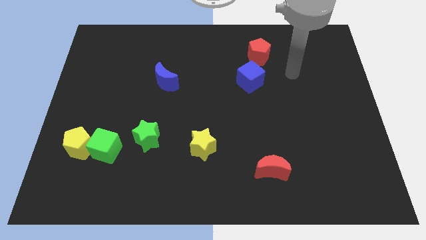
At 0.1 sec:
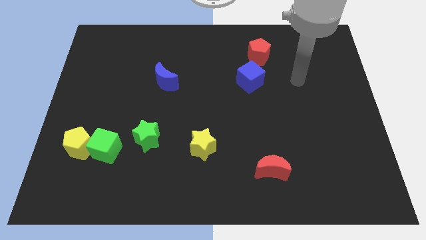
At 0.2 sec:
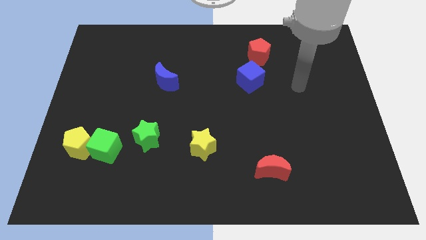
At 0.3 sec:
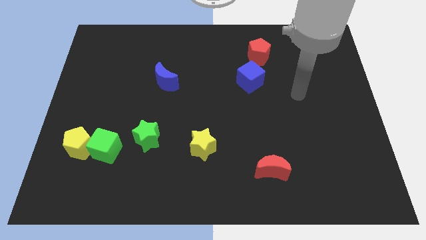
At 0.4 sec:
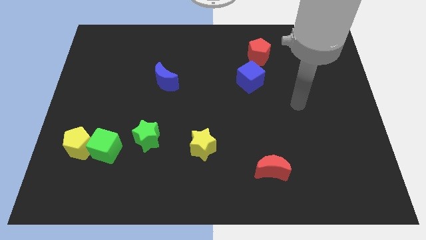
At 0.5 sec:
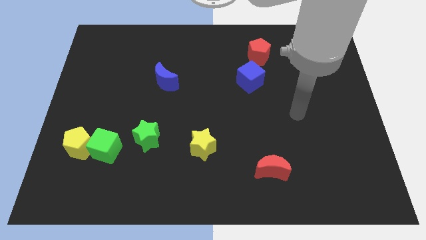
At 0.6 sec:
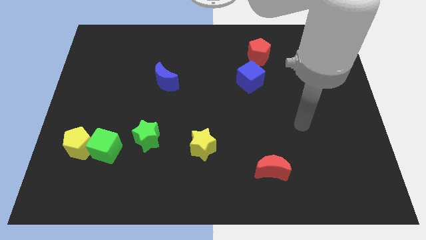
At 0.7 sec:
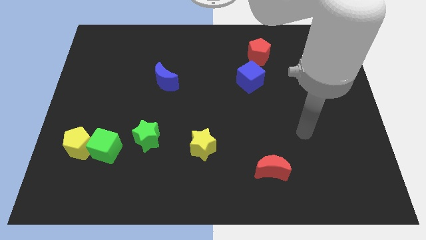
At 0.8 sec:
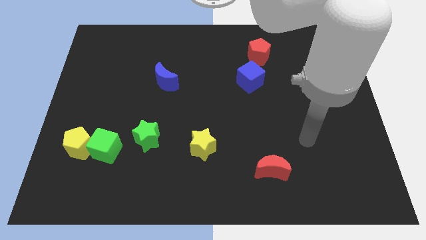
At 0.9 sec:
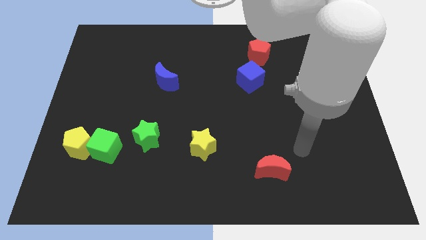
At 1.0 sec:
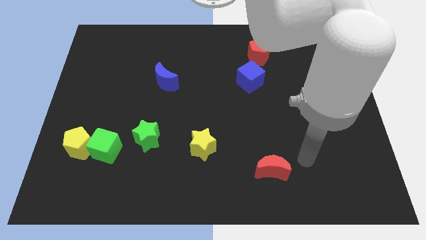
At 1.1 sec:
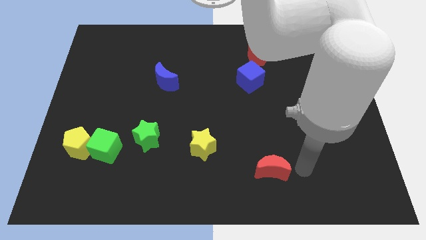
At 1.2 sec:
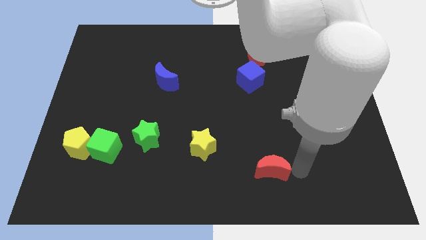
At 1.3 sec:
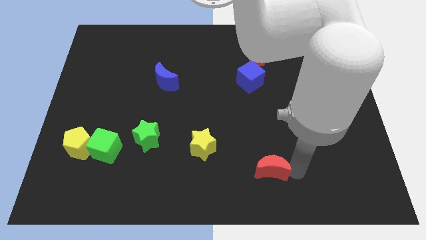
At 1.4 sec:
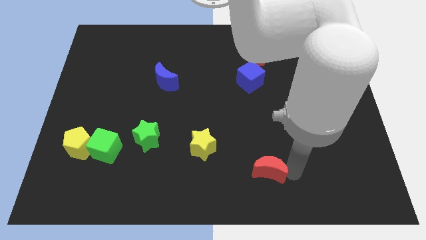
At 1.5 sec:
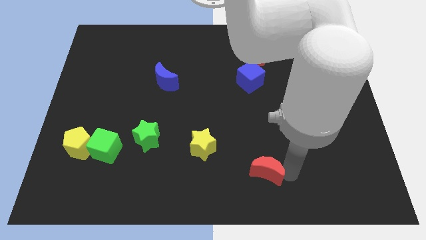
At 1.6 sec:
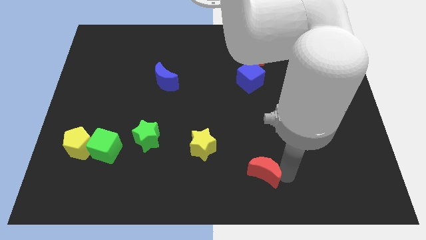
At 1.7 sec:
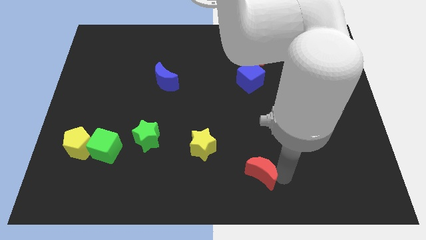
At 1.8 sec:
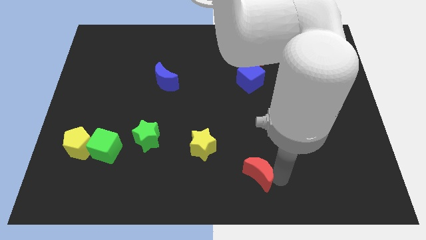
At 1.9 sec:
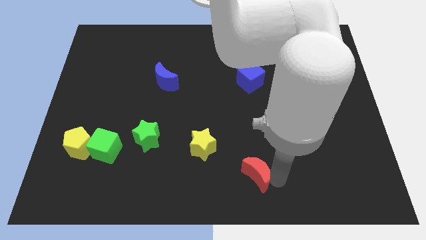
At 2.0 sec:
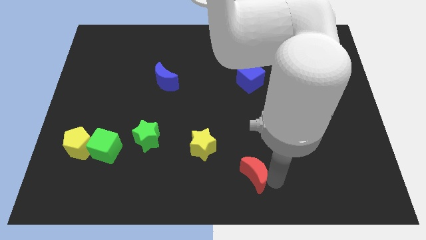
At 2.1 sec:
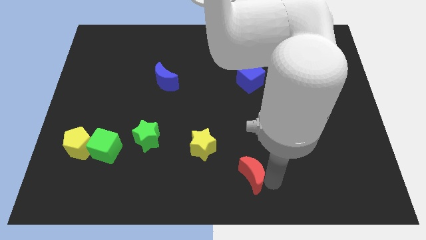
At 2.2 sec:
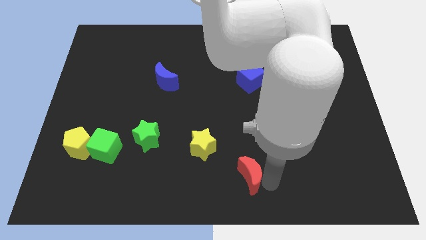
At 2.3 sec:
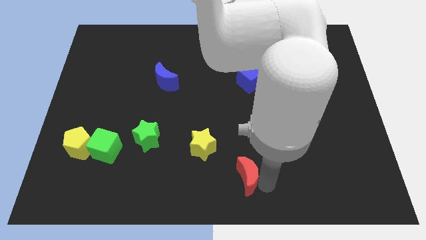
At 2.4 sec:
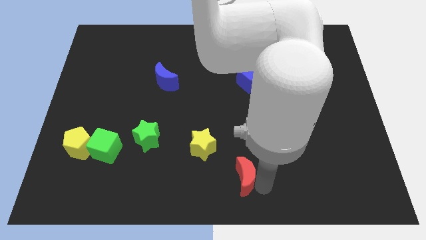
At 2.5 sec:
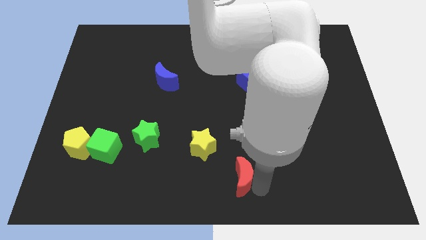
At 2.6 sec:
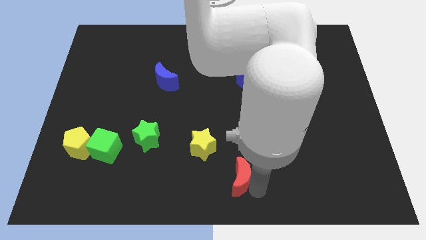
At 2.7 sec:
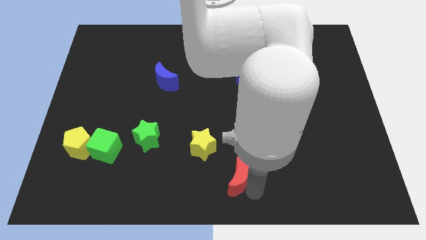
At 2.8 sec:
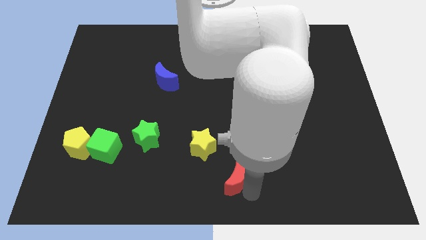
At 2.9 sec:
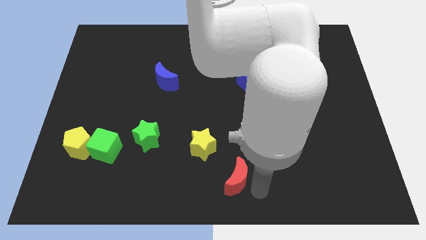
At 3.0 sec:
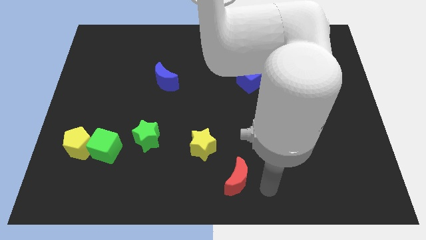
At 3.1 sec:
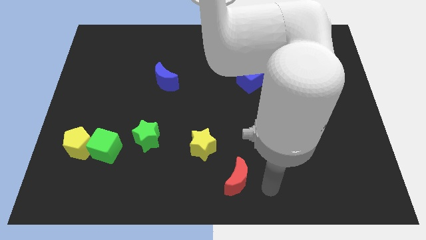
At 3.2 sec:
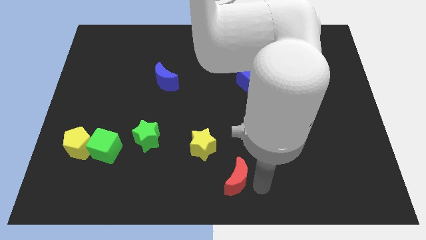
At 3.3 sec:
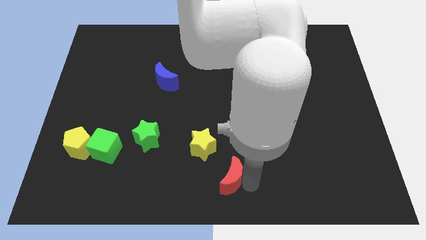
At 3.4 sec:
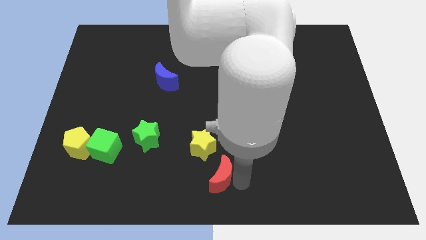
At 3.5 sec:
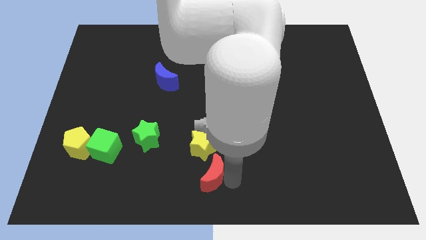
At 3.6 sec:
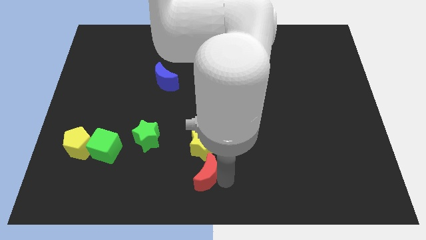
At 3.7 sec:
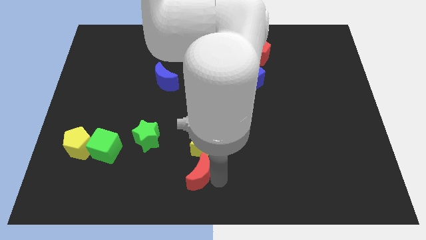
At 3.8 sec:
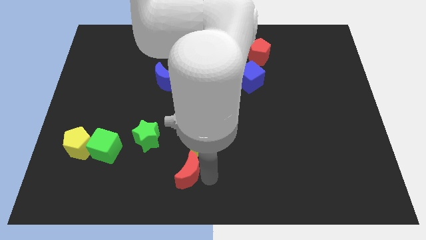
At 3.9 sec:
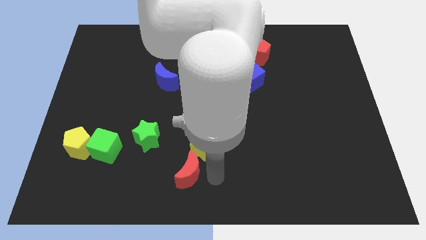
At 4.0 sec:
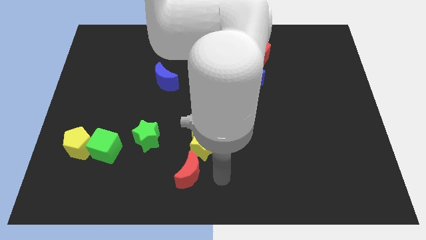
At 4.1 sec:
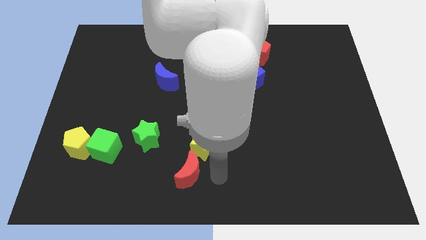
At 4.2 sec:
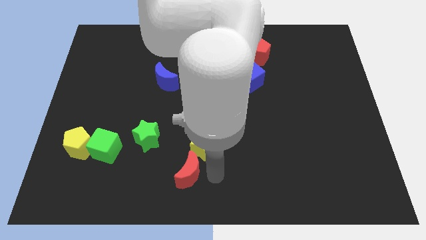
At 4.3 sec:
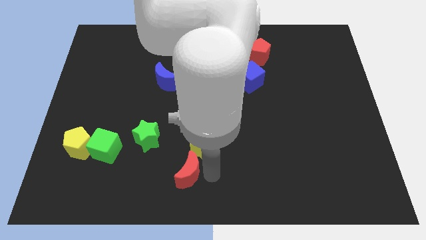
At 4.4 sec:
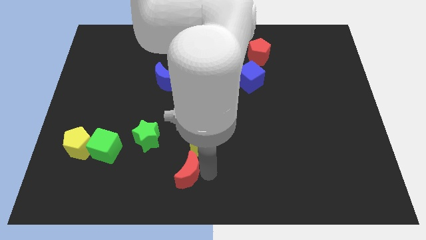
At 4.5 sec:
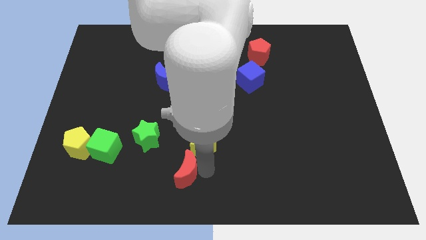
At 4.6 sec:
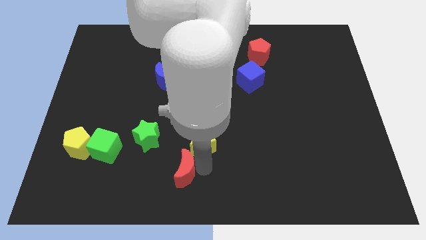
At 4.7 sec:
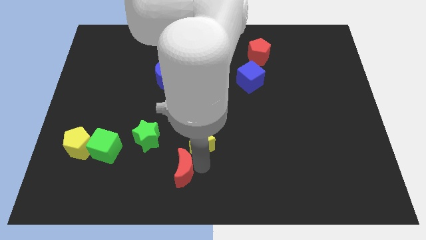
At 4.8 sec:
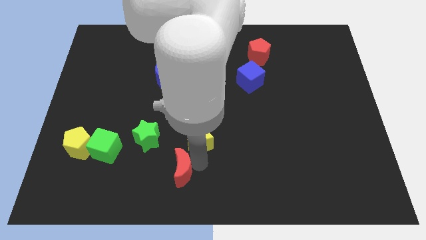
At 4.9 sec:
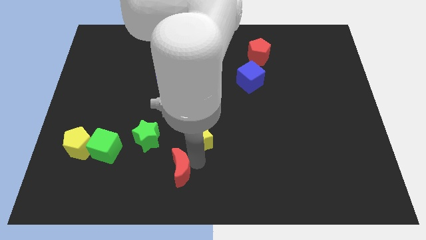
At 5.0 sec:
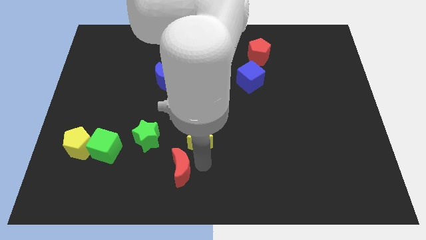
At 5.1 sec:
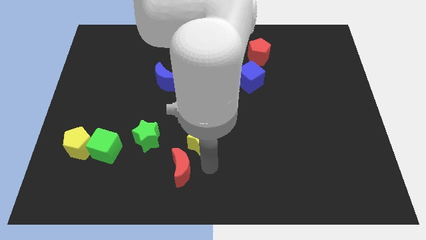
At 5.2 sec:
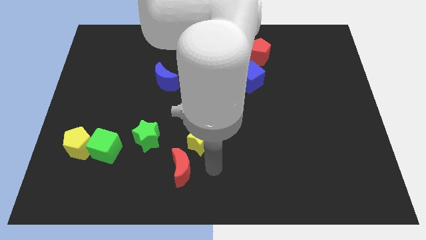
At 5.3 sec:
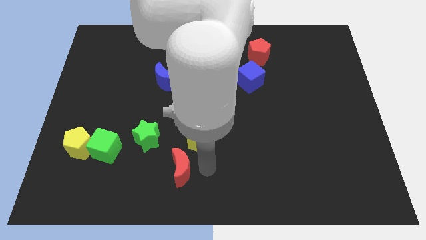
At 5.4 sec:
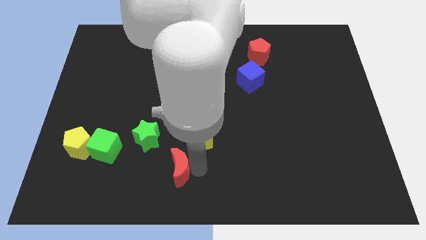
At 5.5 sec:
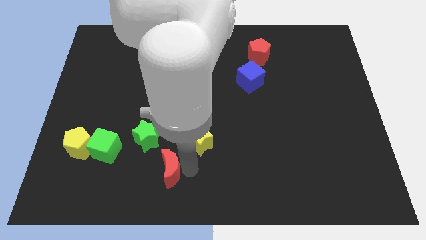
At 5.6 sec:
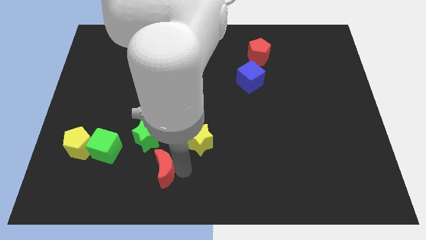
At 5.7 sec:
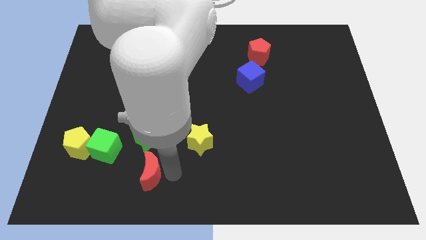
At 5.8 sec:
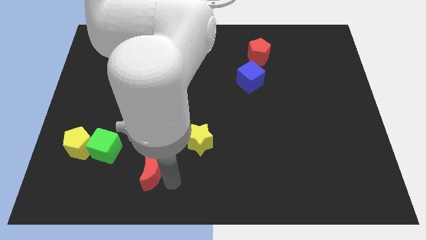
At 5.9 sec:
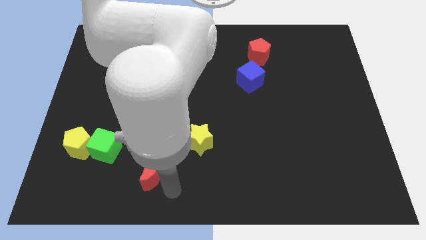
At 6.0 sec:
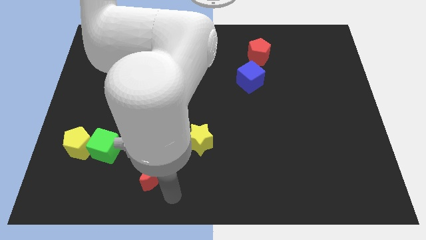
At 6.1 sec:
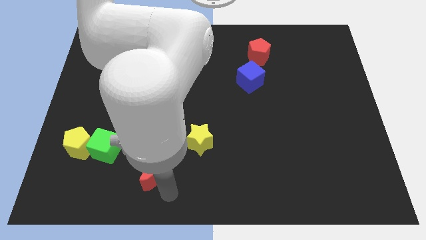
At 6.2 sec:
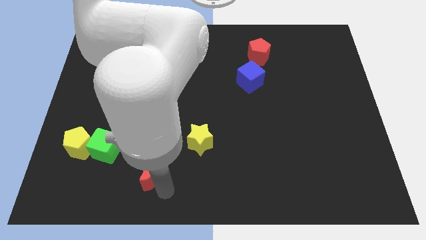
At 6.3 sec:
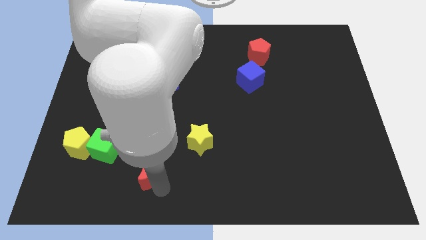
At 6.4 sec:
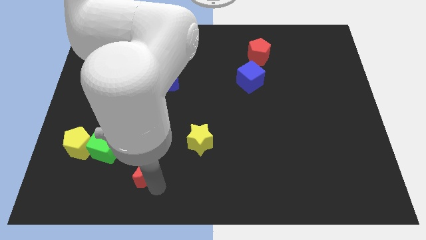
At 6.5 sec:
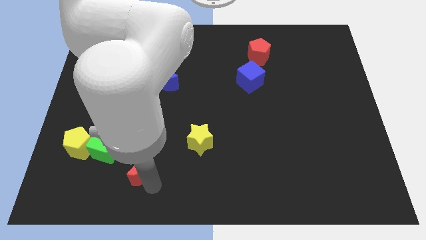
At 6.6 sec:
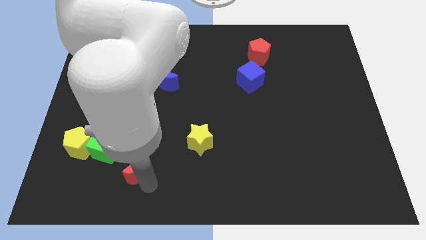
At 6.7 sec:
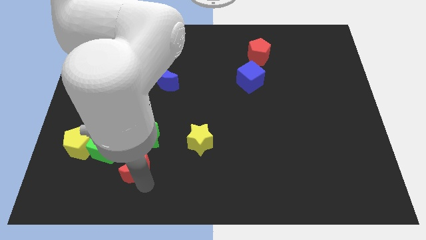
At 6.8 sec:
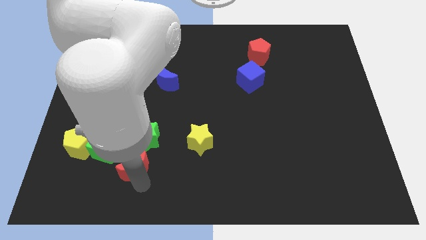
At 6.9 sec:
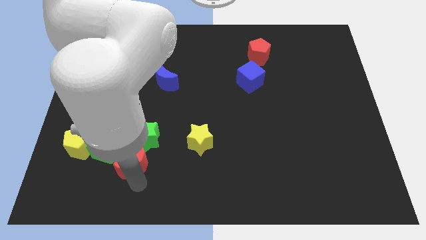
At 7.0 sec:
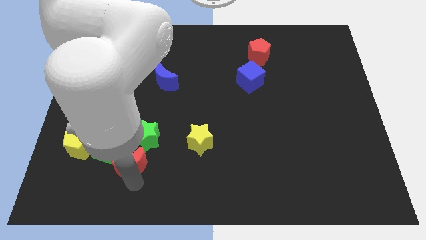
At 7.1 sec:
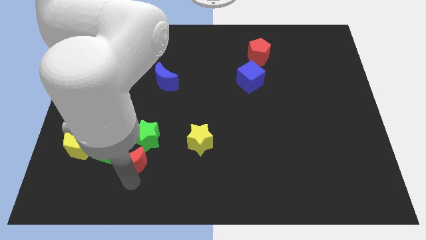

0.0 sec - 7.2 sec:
slide the red moon to the right side of the yellow pentagon

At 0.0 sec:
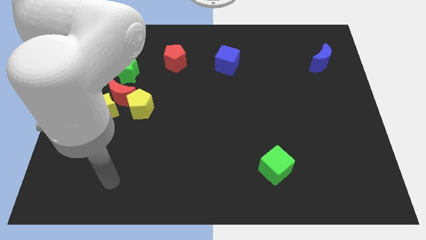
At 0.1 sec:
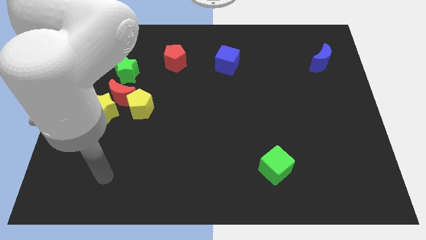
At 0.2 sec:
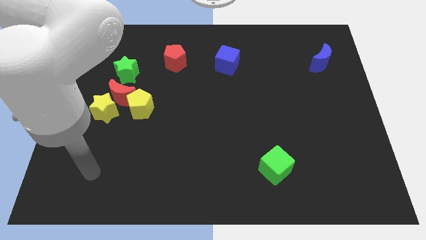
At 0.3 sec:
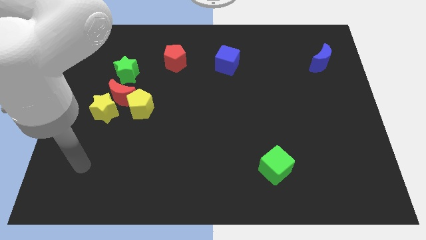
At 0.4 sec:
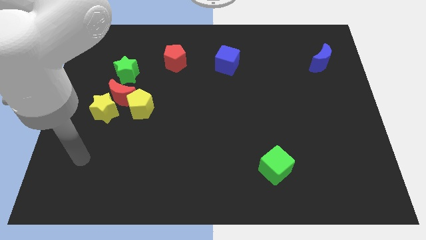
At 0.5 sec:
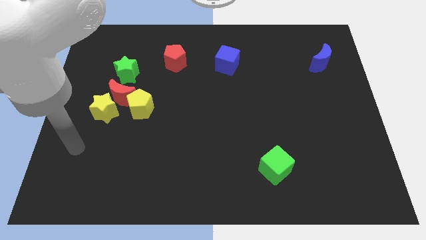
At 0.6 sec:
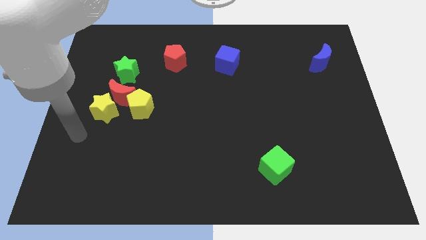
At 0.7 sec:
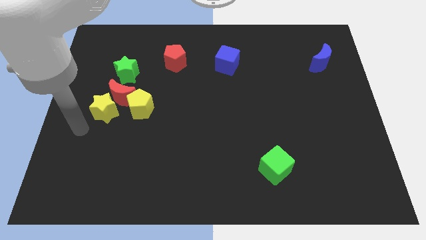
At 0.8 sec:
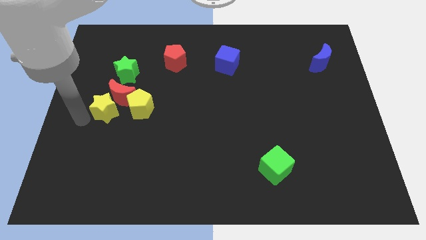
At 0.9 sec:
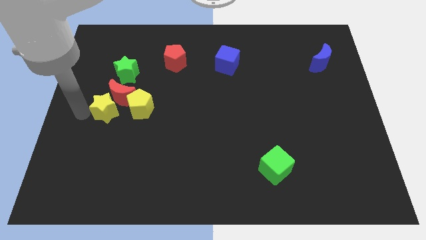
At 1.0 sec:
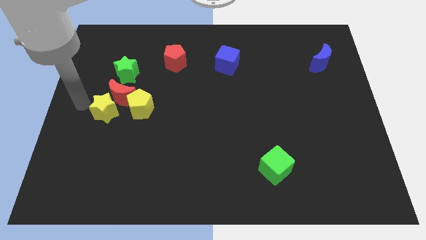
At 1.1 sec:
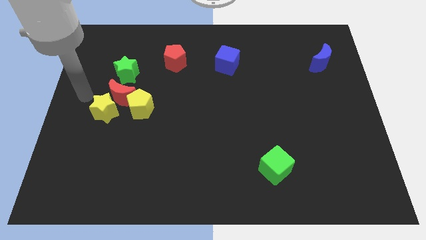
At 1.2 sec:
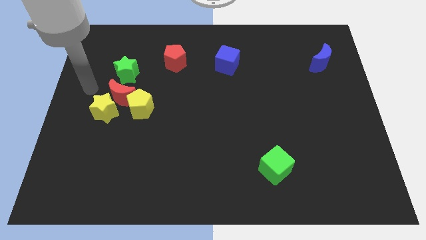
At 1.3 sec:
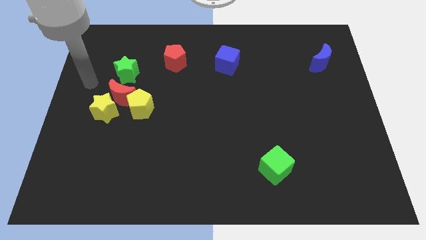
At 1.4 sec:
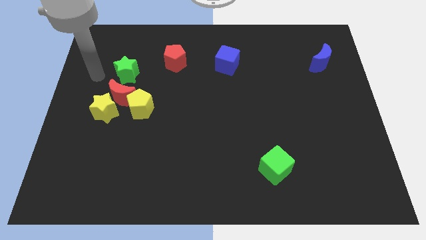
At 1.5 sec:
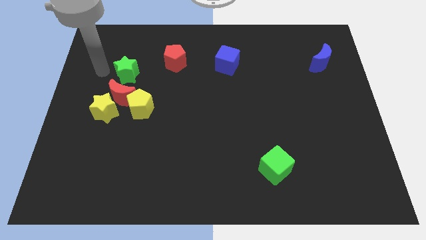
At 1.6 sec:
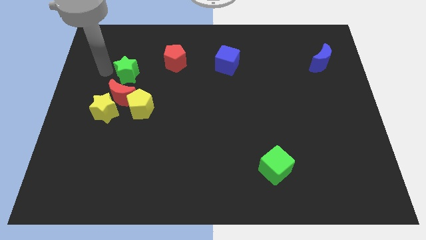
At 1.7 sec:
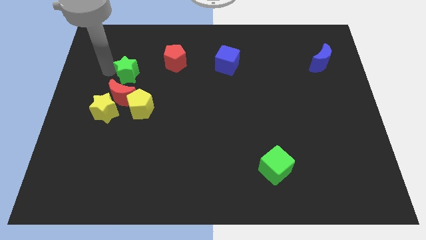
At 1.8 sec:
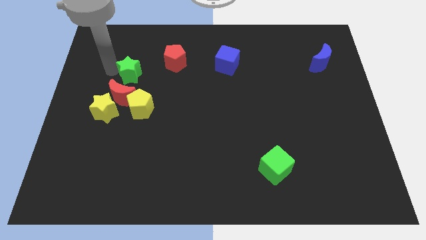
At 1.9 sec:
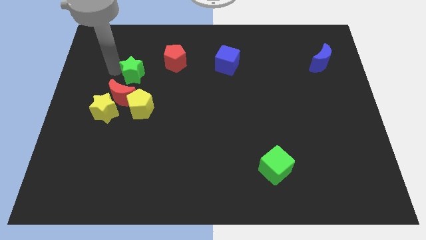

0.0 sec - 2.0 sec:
put the green star diagonally down and to the left of the red pentagon
